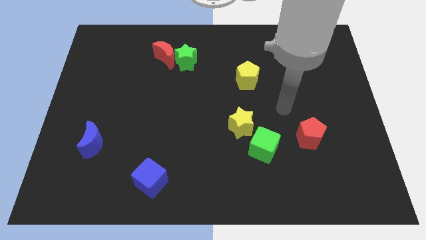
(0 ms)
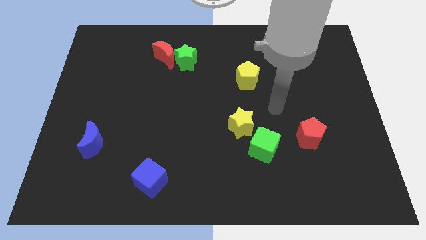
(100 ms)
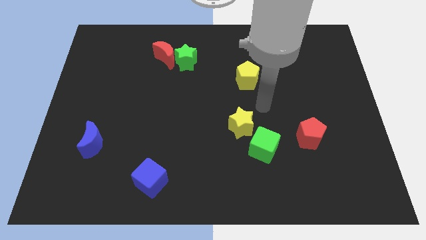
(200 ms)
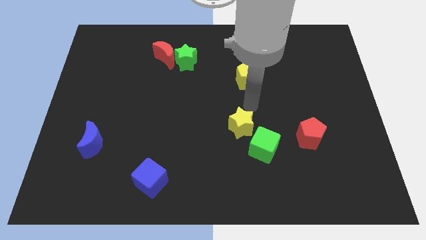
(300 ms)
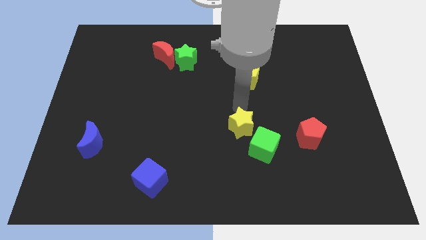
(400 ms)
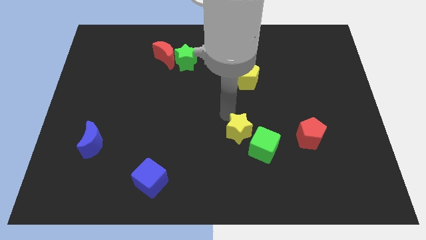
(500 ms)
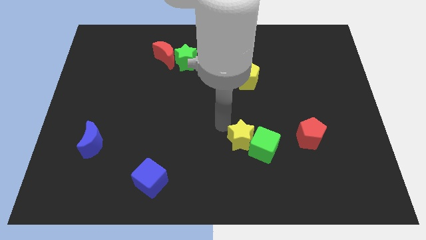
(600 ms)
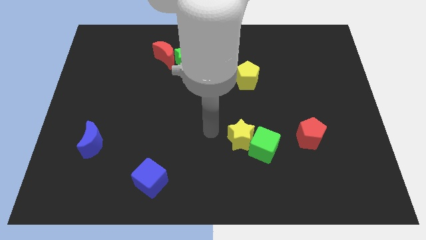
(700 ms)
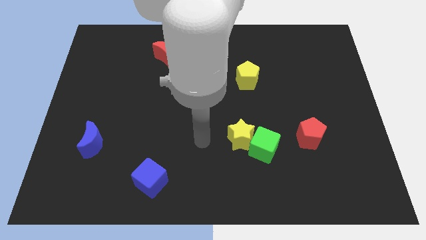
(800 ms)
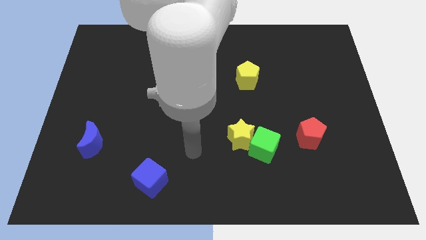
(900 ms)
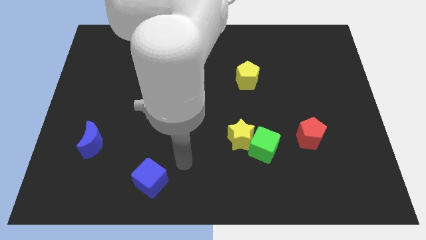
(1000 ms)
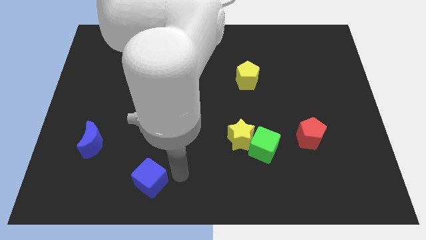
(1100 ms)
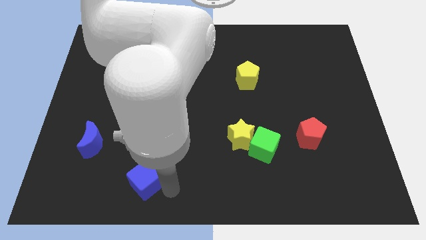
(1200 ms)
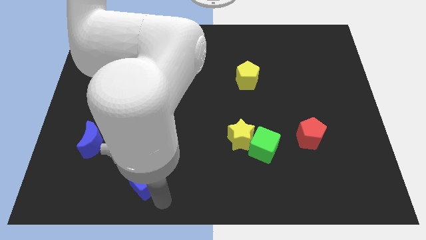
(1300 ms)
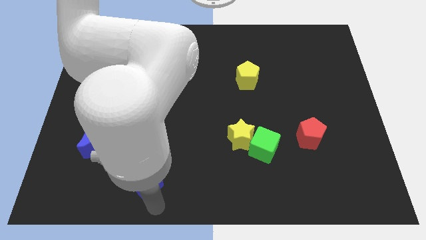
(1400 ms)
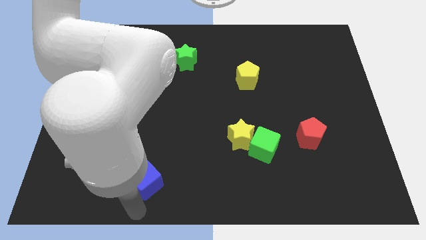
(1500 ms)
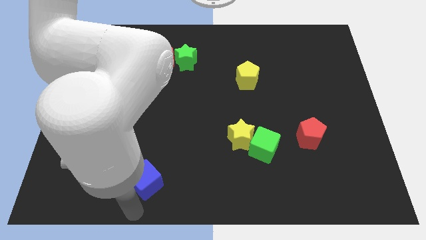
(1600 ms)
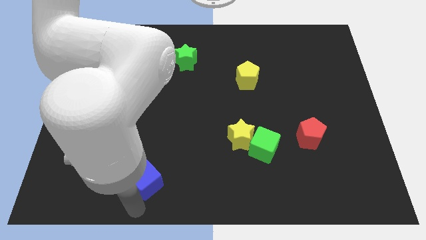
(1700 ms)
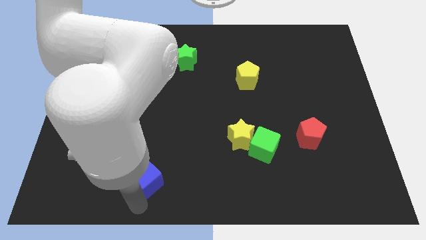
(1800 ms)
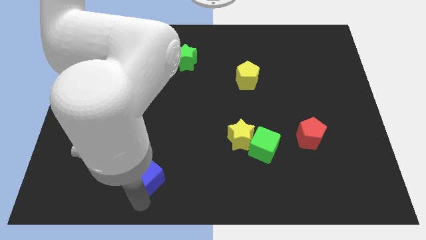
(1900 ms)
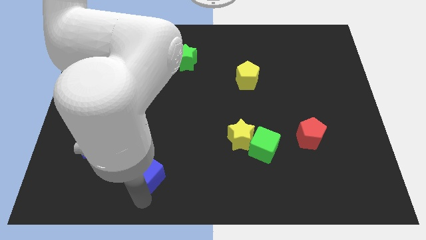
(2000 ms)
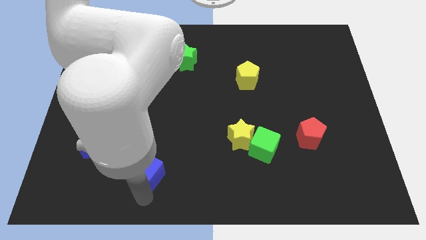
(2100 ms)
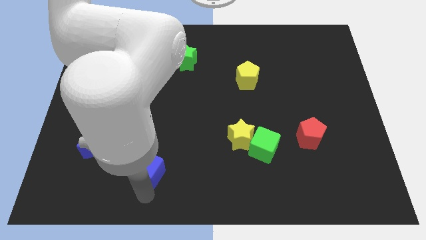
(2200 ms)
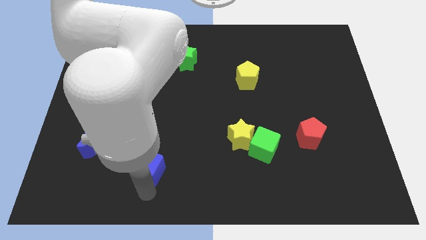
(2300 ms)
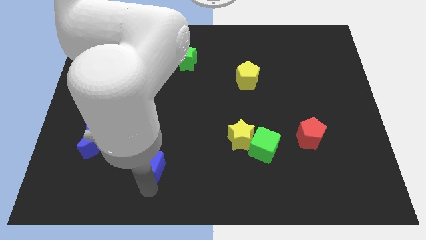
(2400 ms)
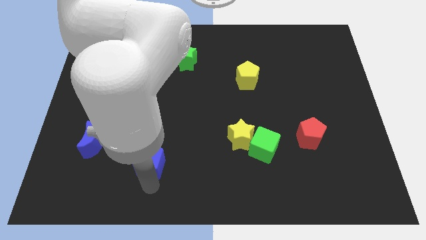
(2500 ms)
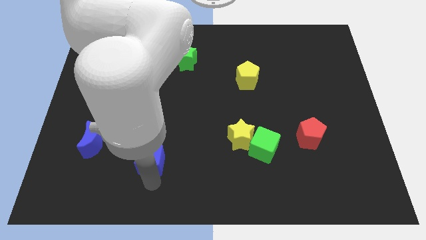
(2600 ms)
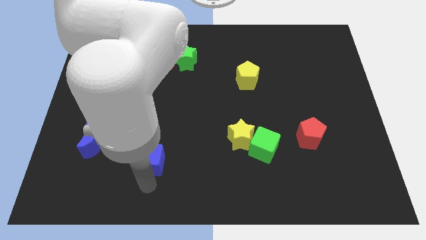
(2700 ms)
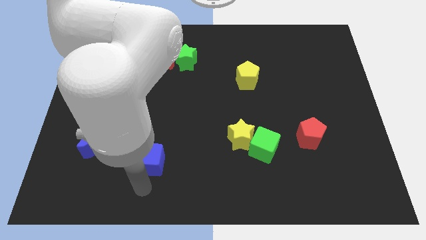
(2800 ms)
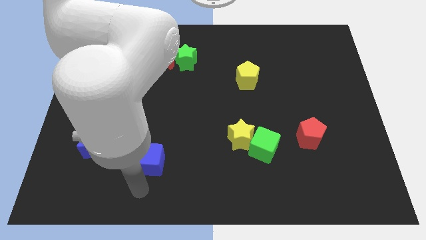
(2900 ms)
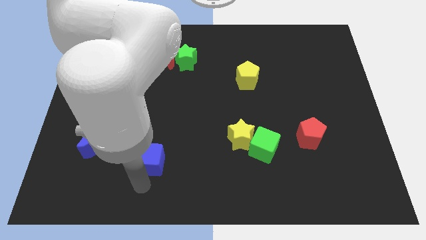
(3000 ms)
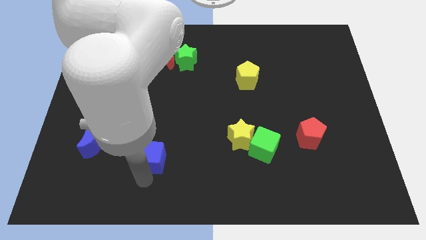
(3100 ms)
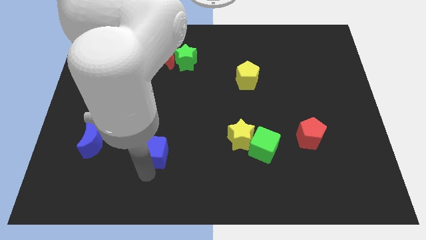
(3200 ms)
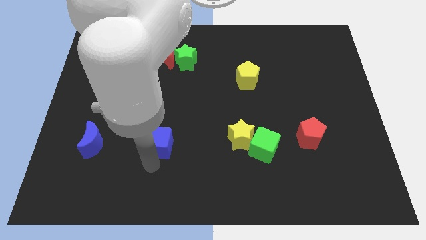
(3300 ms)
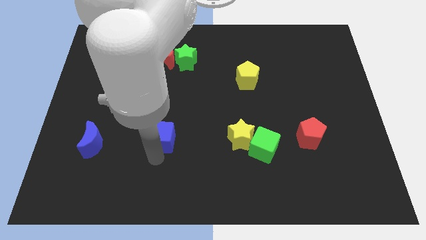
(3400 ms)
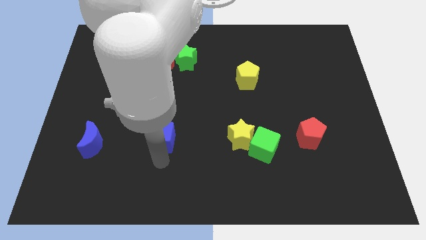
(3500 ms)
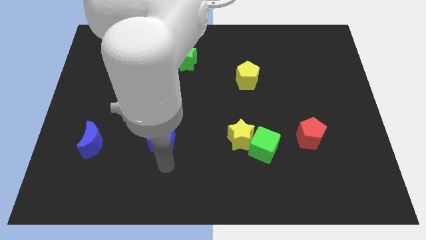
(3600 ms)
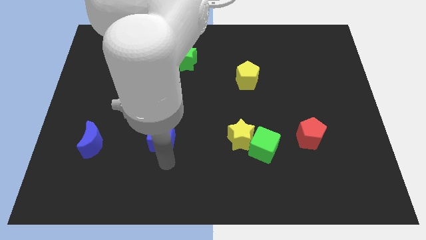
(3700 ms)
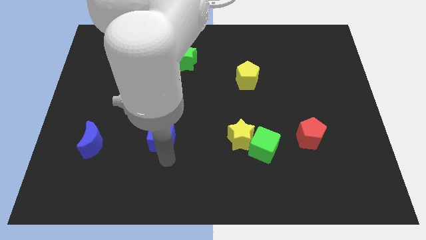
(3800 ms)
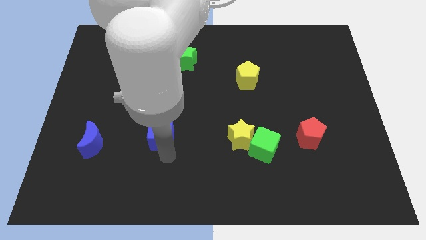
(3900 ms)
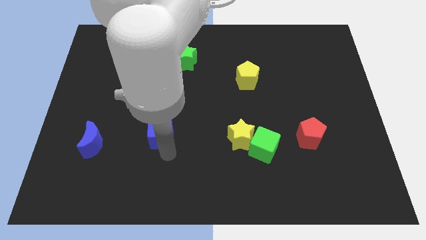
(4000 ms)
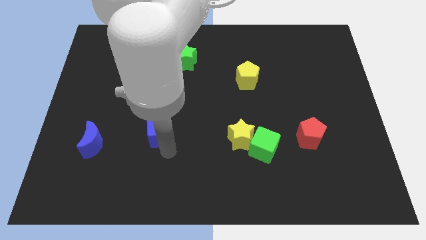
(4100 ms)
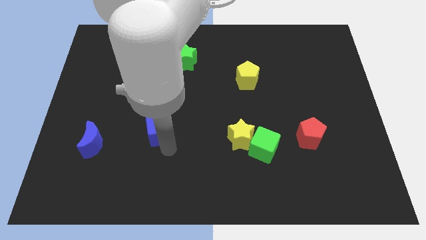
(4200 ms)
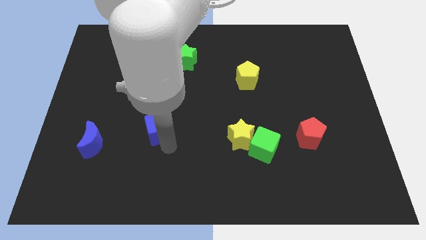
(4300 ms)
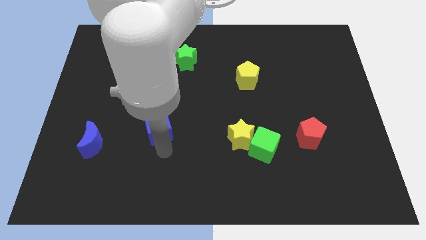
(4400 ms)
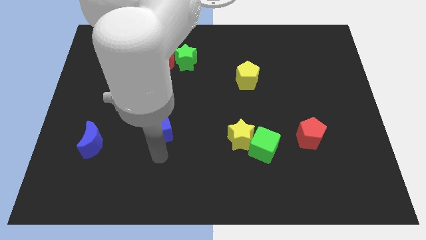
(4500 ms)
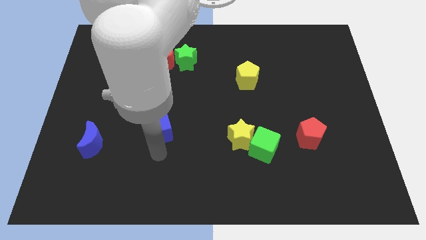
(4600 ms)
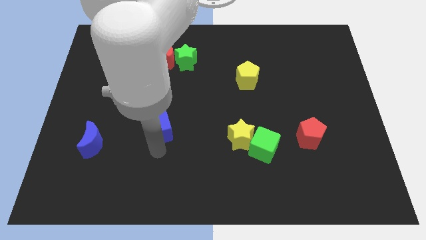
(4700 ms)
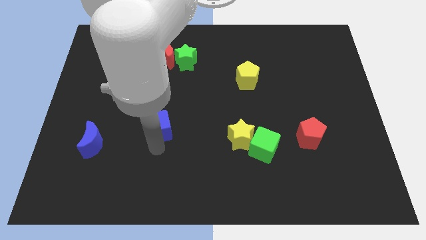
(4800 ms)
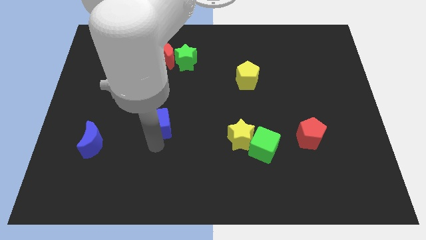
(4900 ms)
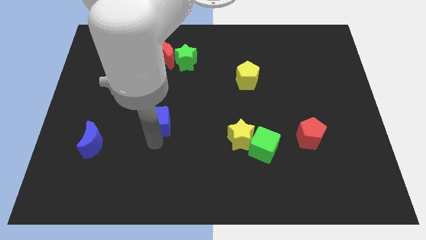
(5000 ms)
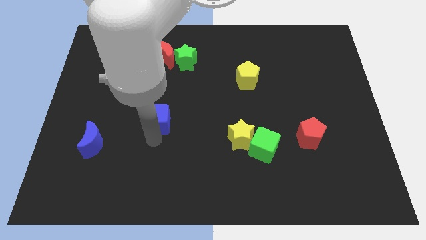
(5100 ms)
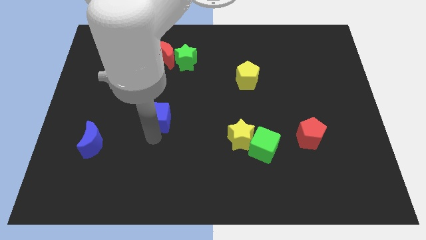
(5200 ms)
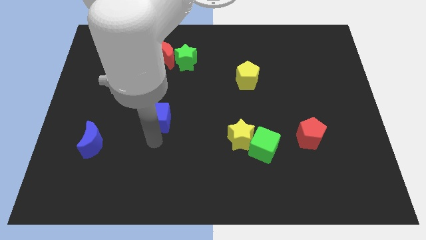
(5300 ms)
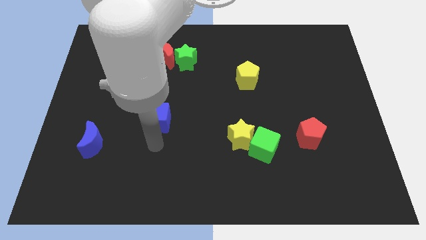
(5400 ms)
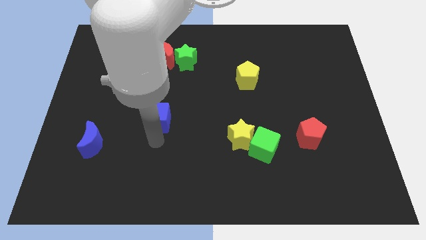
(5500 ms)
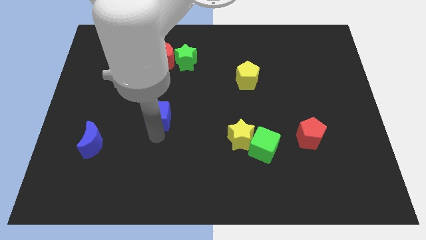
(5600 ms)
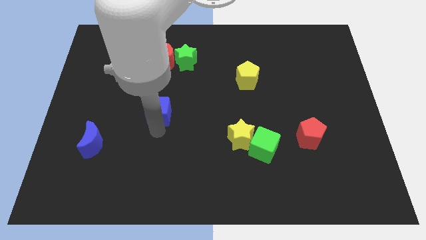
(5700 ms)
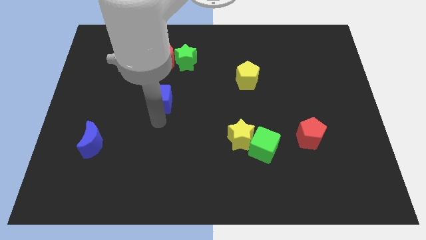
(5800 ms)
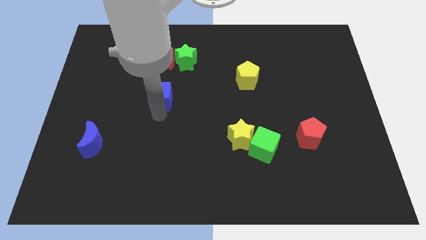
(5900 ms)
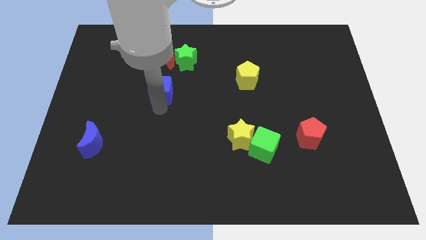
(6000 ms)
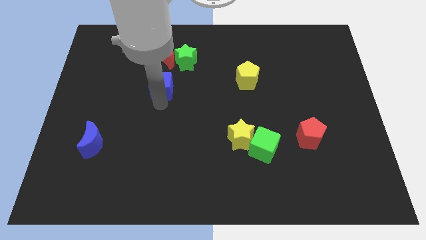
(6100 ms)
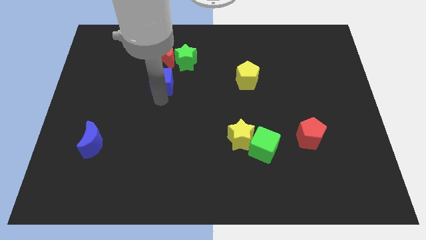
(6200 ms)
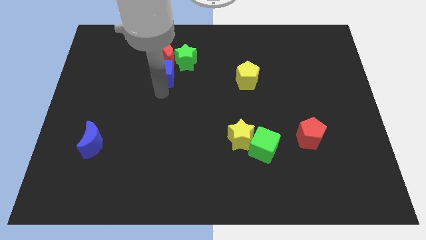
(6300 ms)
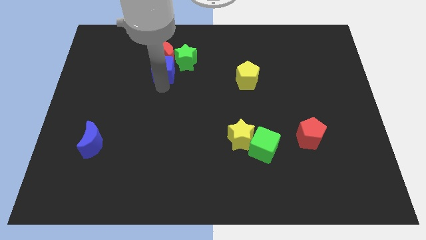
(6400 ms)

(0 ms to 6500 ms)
put the blue cube to the red moon
